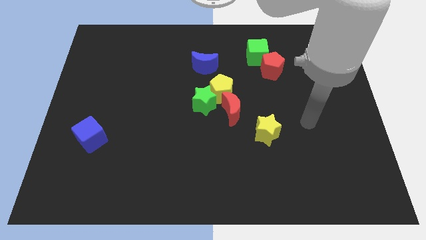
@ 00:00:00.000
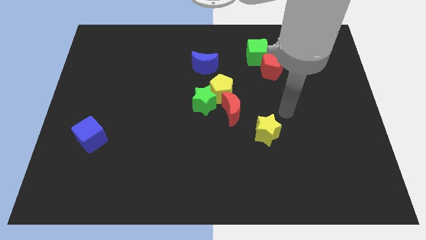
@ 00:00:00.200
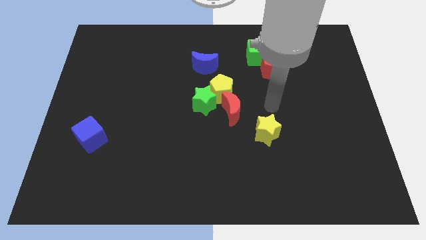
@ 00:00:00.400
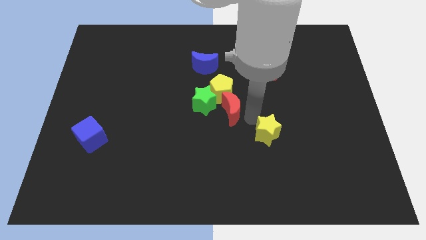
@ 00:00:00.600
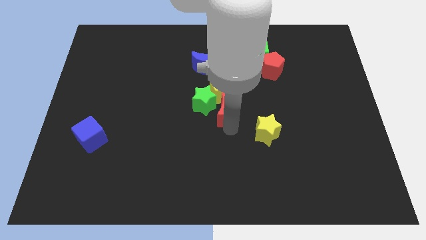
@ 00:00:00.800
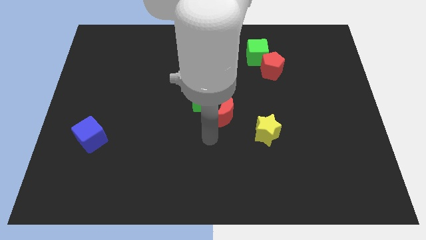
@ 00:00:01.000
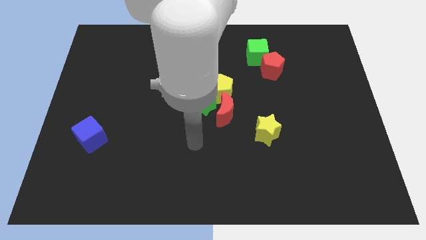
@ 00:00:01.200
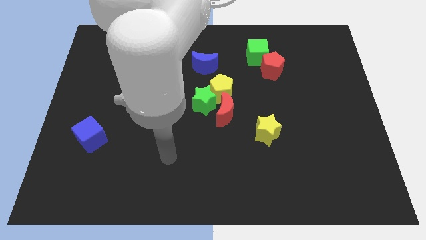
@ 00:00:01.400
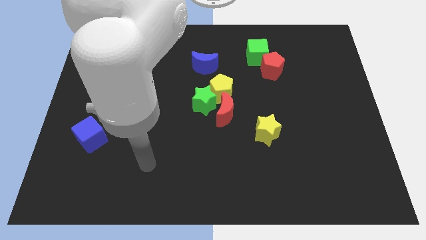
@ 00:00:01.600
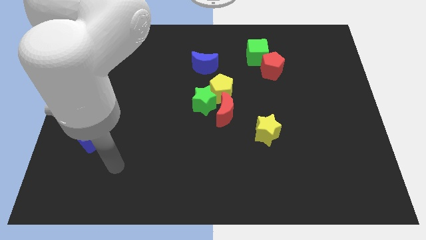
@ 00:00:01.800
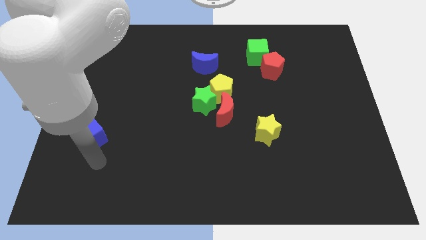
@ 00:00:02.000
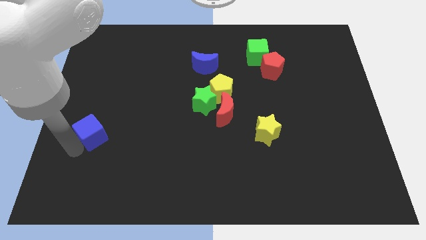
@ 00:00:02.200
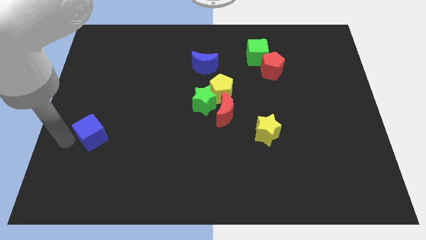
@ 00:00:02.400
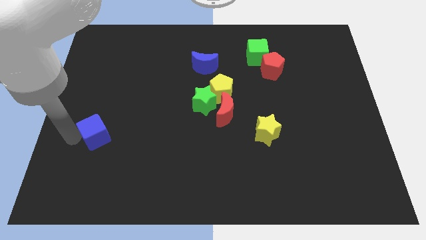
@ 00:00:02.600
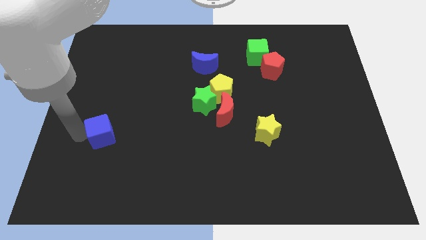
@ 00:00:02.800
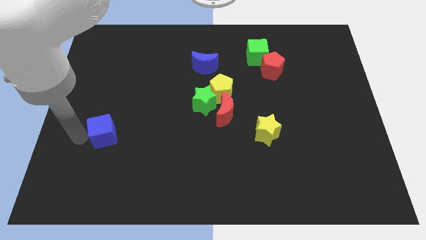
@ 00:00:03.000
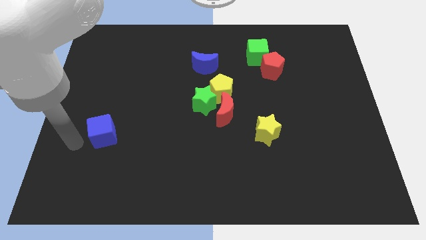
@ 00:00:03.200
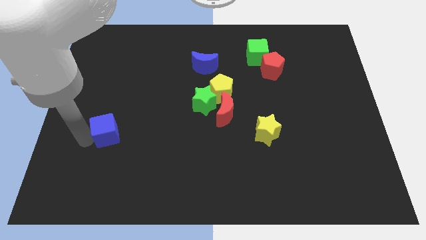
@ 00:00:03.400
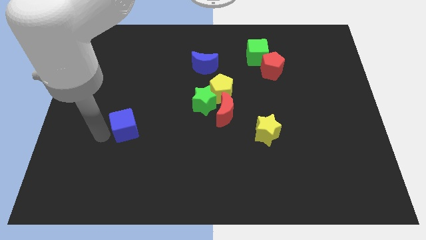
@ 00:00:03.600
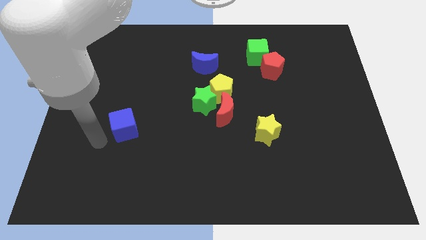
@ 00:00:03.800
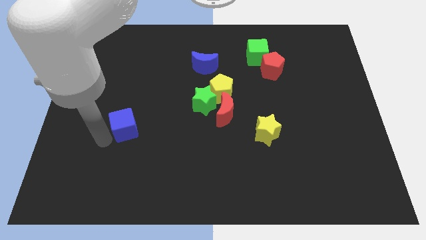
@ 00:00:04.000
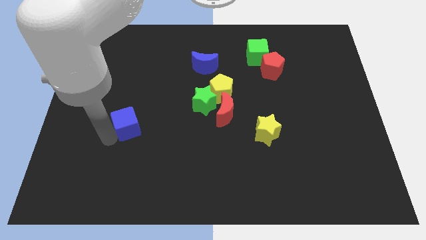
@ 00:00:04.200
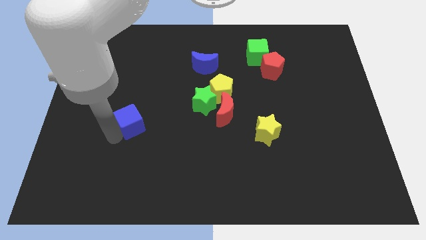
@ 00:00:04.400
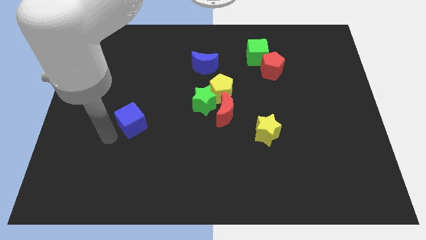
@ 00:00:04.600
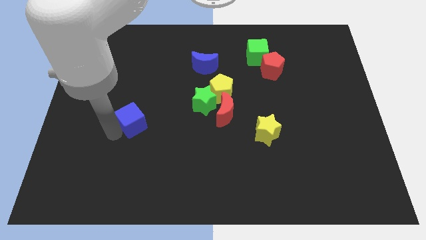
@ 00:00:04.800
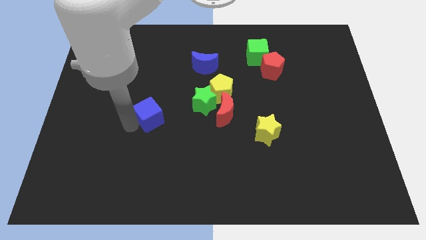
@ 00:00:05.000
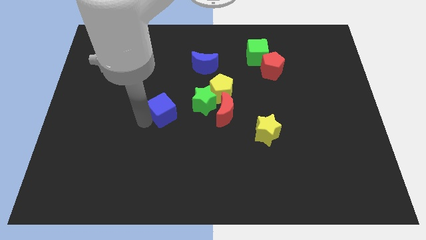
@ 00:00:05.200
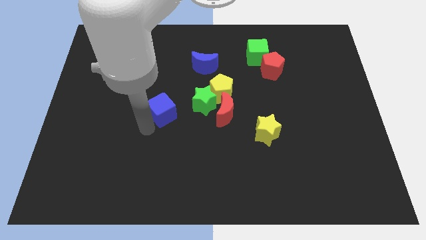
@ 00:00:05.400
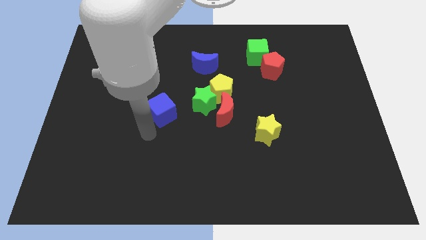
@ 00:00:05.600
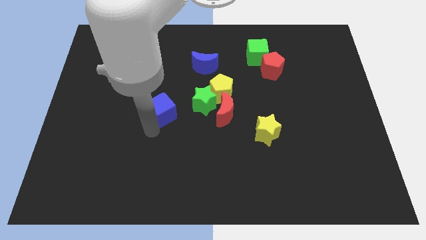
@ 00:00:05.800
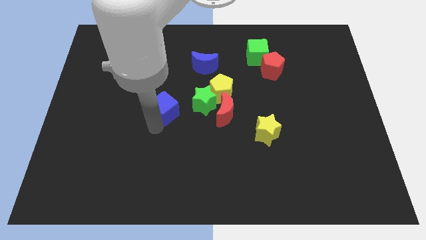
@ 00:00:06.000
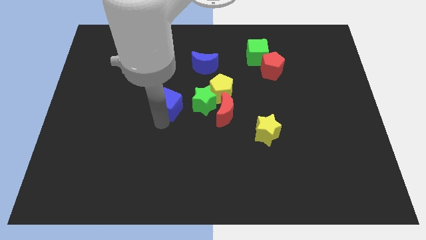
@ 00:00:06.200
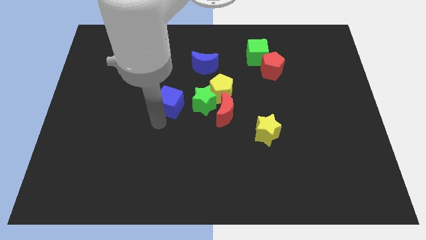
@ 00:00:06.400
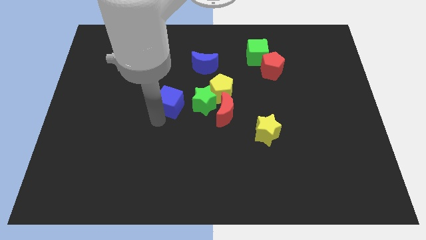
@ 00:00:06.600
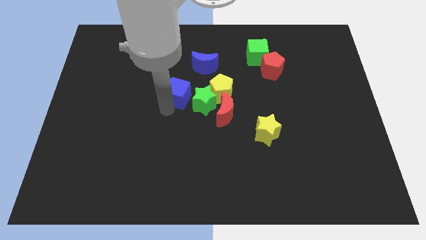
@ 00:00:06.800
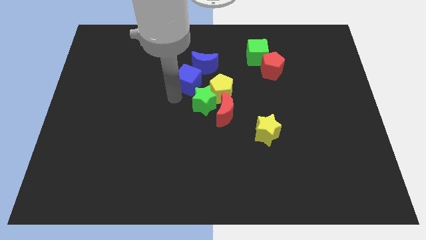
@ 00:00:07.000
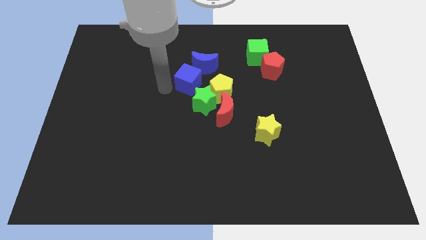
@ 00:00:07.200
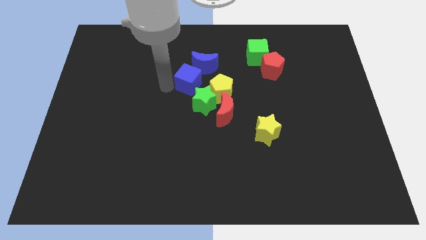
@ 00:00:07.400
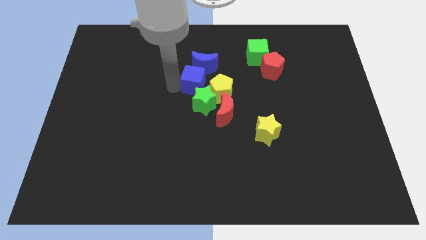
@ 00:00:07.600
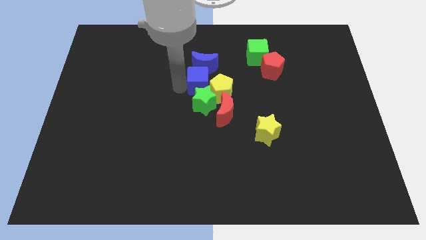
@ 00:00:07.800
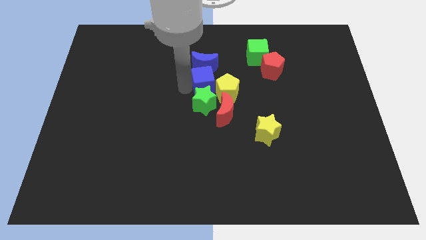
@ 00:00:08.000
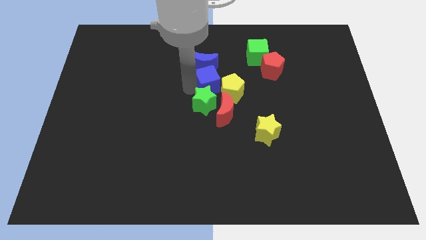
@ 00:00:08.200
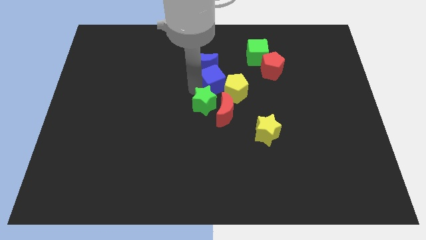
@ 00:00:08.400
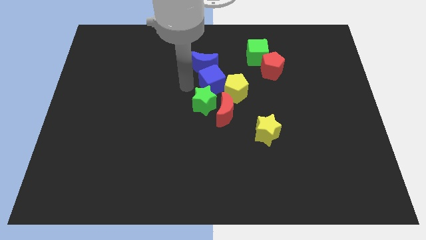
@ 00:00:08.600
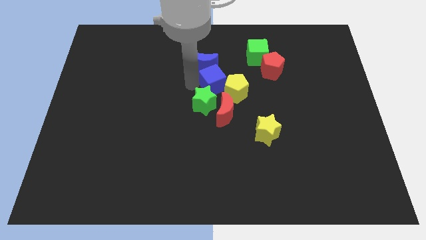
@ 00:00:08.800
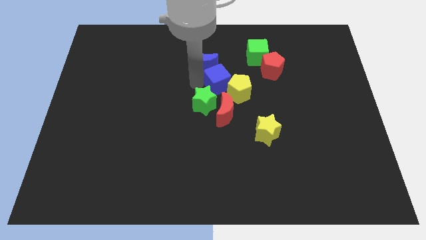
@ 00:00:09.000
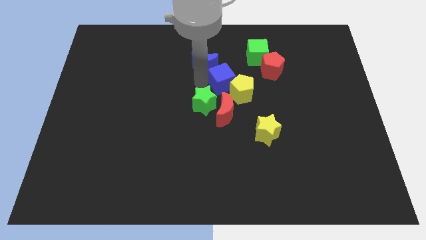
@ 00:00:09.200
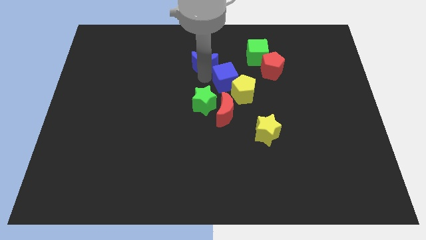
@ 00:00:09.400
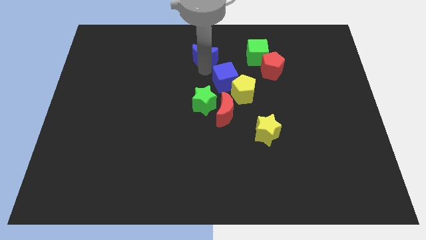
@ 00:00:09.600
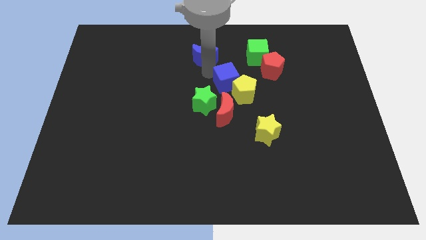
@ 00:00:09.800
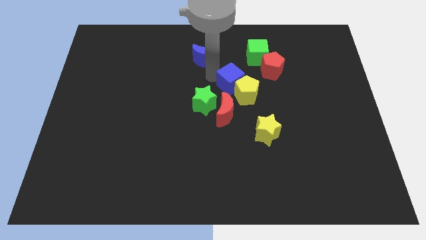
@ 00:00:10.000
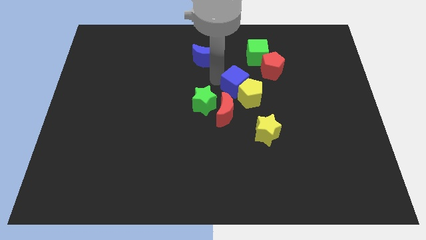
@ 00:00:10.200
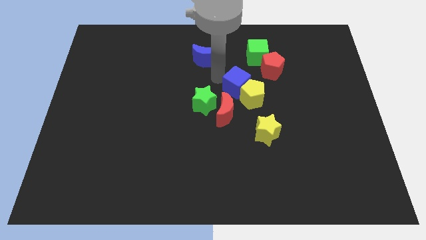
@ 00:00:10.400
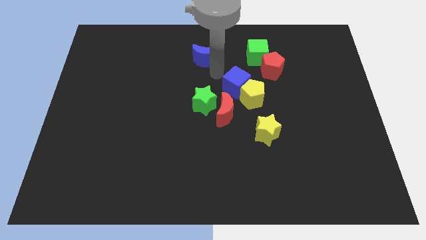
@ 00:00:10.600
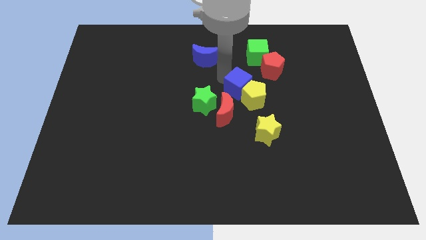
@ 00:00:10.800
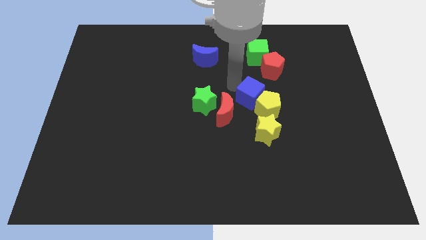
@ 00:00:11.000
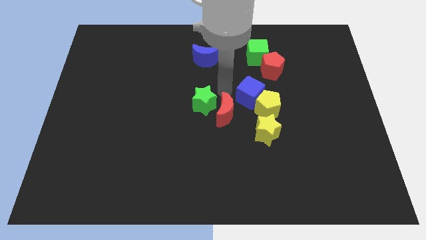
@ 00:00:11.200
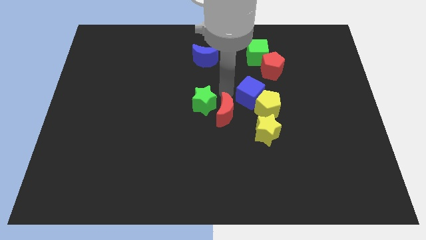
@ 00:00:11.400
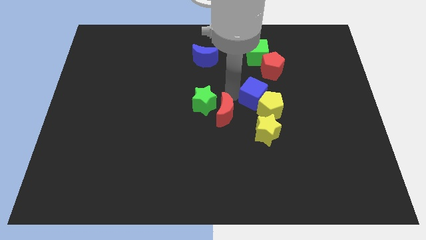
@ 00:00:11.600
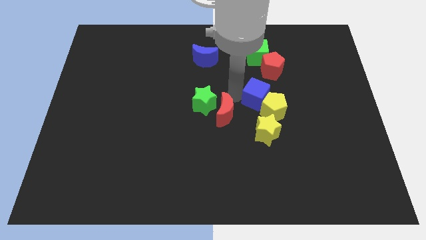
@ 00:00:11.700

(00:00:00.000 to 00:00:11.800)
put the blue cube below the red pentagon

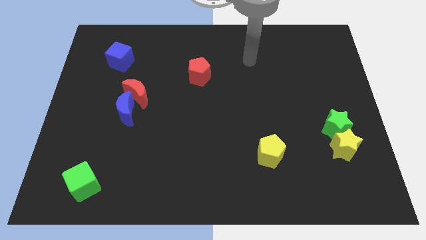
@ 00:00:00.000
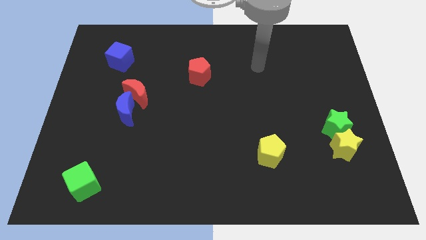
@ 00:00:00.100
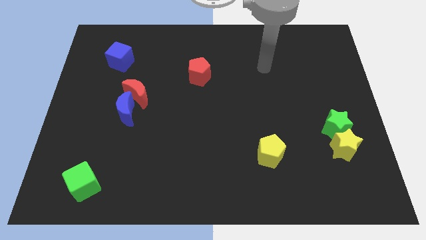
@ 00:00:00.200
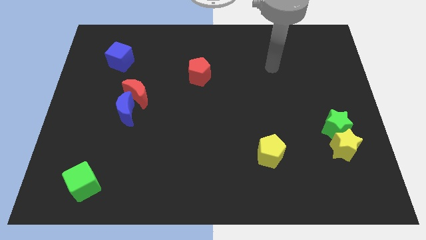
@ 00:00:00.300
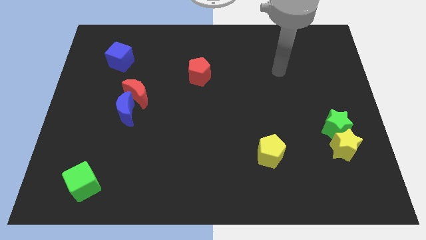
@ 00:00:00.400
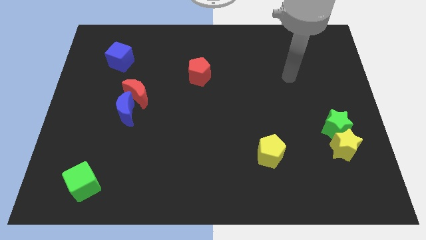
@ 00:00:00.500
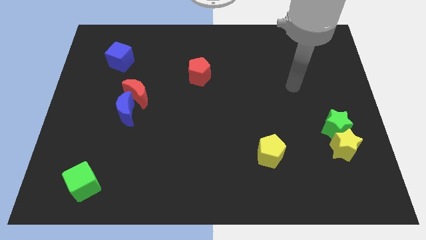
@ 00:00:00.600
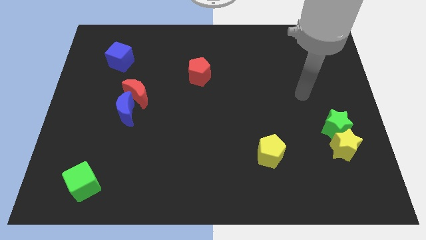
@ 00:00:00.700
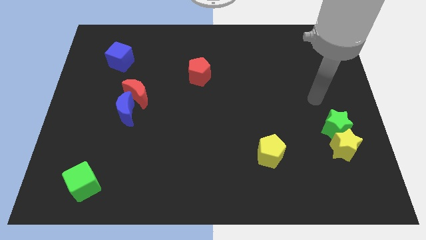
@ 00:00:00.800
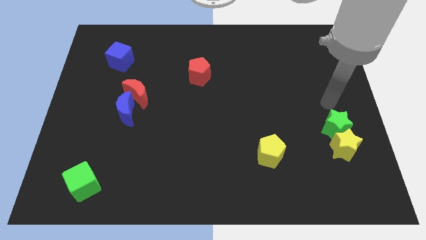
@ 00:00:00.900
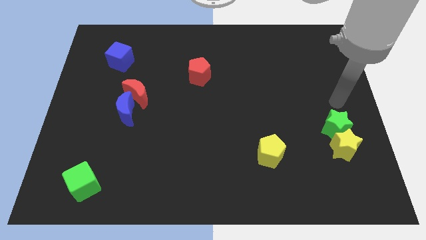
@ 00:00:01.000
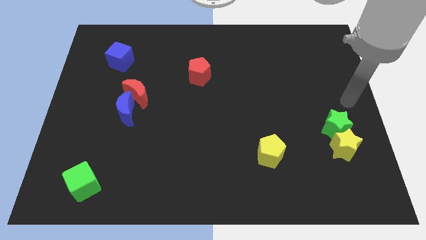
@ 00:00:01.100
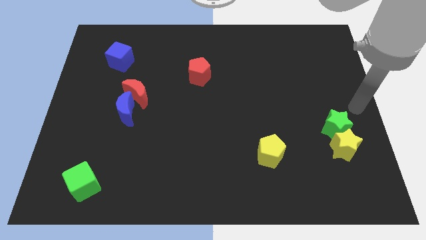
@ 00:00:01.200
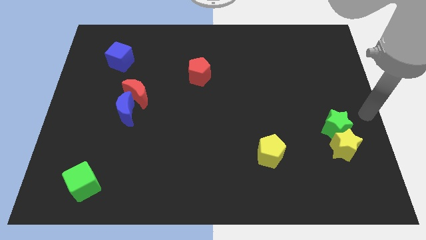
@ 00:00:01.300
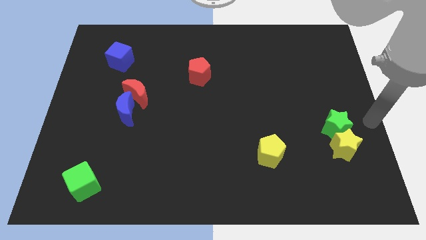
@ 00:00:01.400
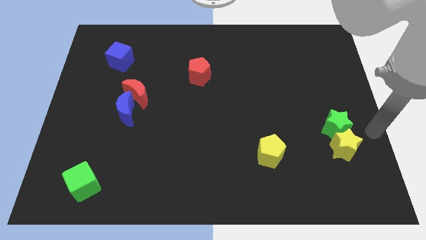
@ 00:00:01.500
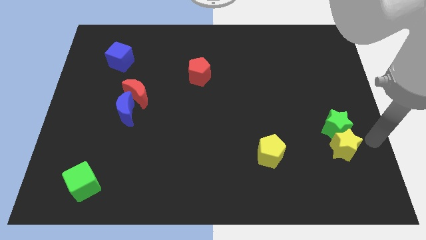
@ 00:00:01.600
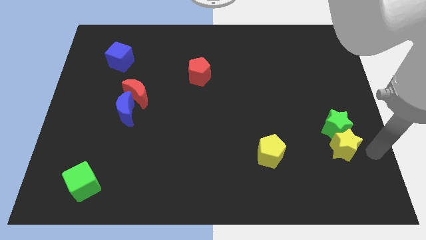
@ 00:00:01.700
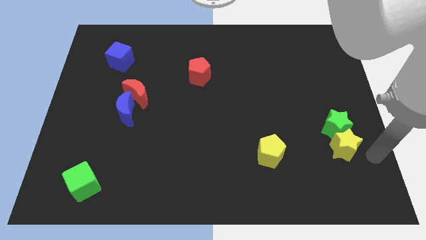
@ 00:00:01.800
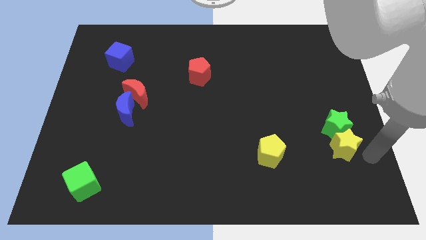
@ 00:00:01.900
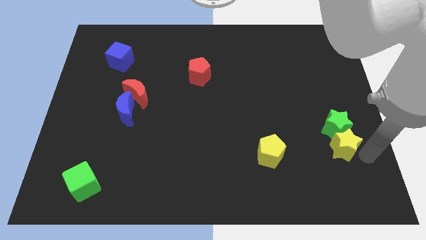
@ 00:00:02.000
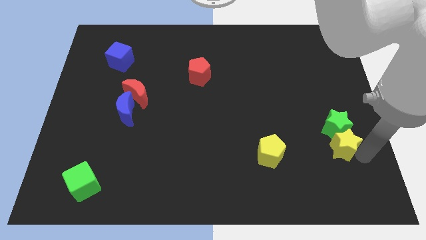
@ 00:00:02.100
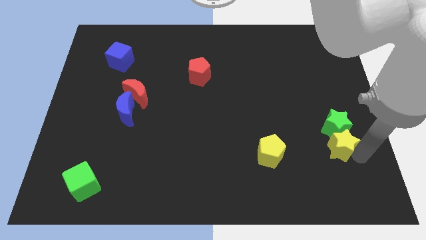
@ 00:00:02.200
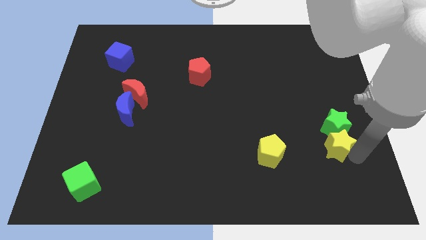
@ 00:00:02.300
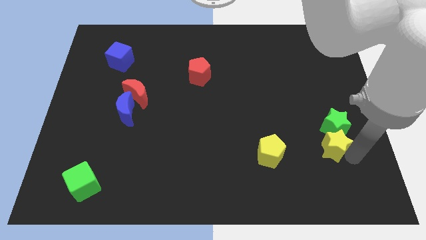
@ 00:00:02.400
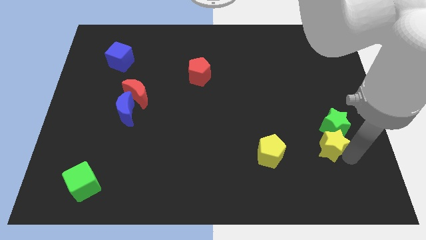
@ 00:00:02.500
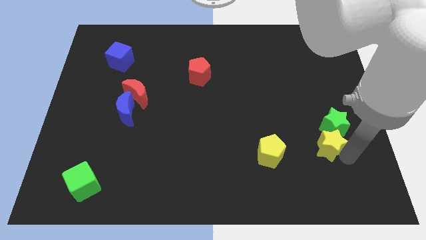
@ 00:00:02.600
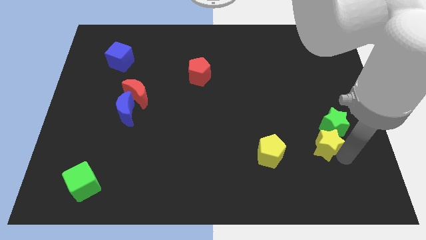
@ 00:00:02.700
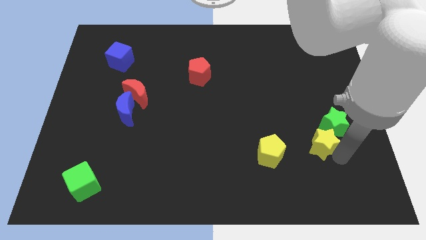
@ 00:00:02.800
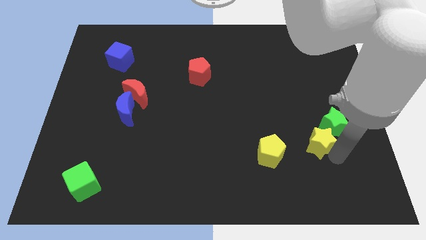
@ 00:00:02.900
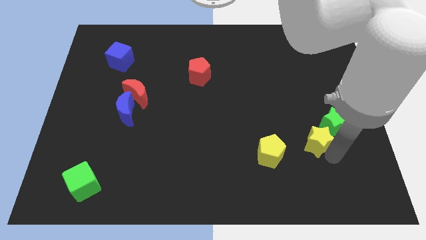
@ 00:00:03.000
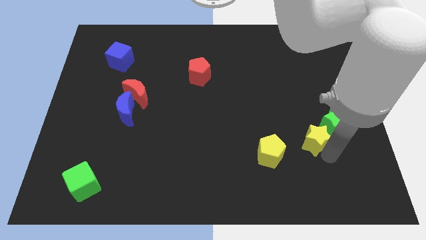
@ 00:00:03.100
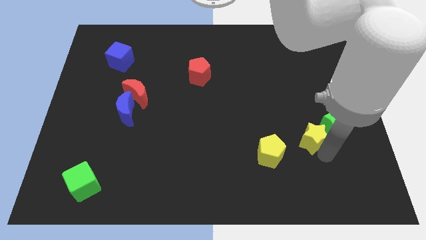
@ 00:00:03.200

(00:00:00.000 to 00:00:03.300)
move the yellow star diagonally up and to the right of the yellow pentagon
